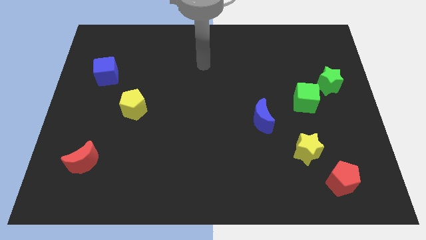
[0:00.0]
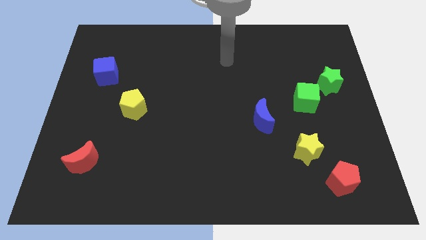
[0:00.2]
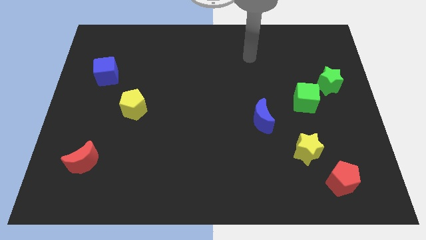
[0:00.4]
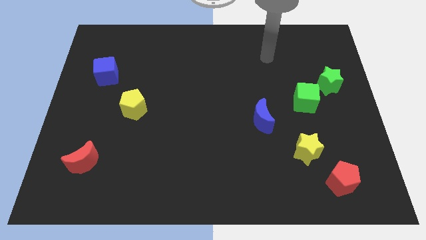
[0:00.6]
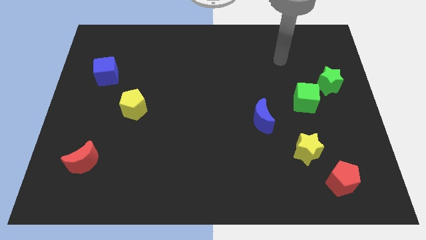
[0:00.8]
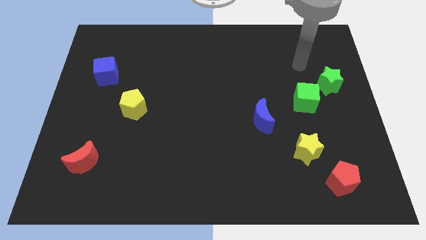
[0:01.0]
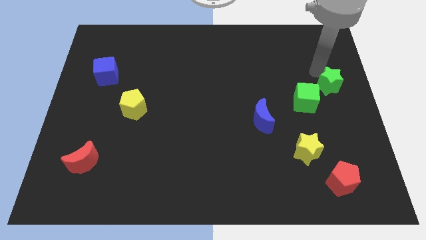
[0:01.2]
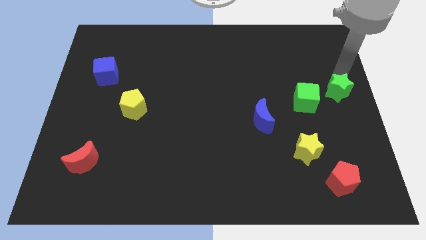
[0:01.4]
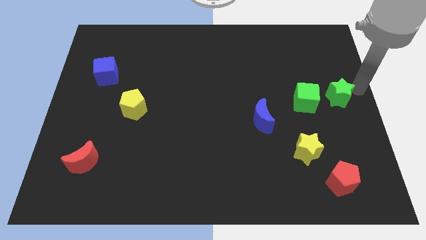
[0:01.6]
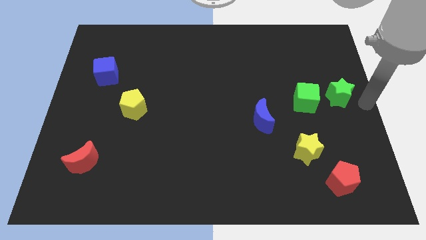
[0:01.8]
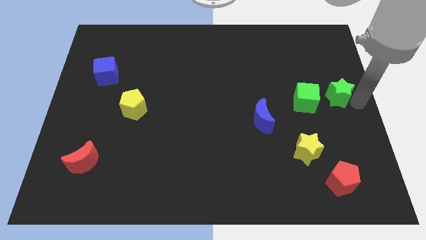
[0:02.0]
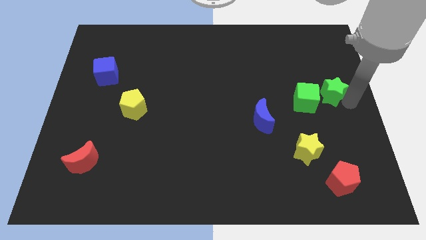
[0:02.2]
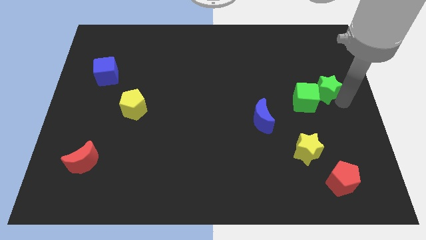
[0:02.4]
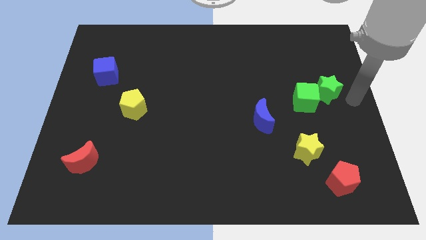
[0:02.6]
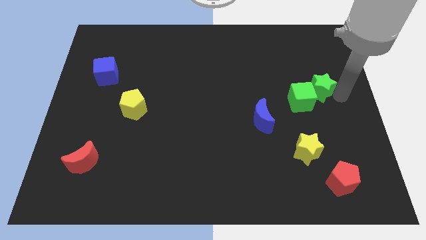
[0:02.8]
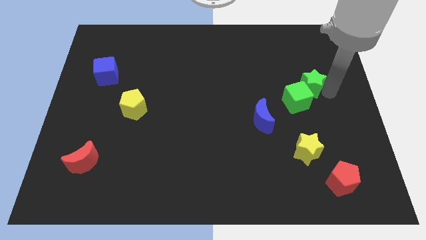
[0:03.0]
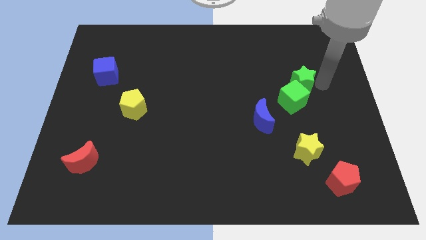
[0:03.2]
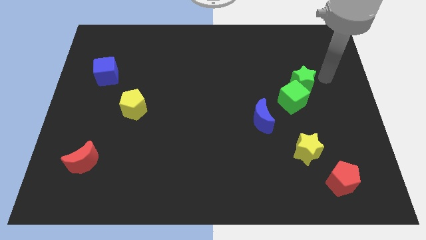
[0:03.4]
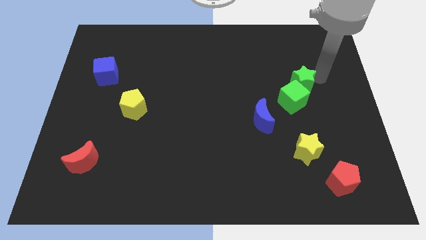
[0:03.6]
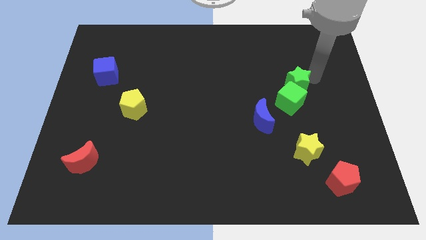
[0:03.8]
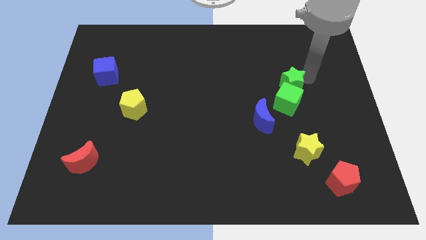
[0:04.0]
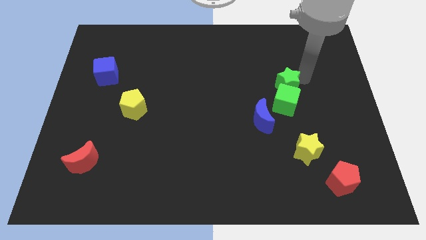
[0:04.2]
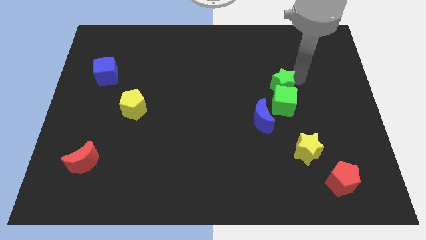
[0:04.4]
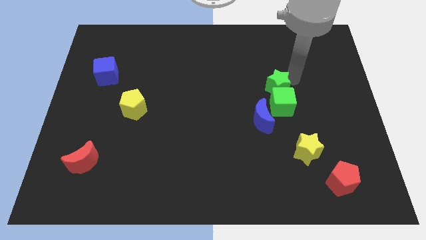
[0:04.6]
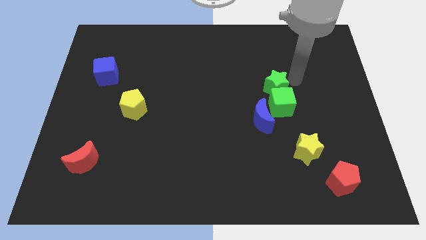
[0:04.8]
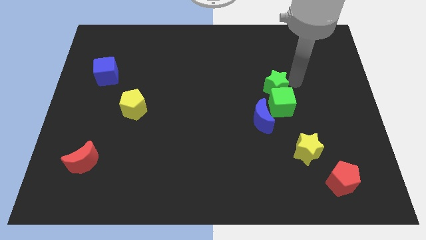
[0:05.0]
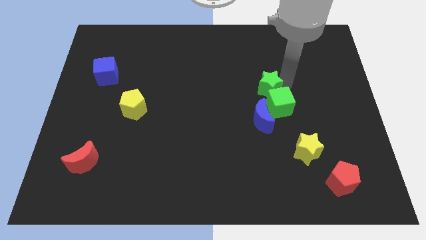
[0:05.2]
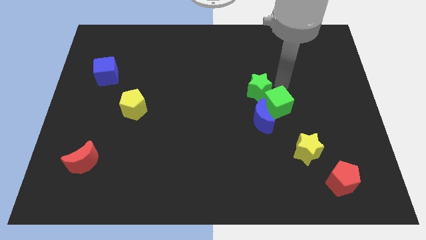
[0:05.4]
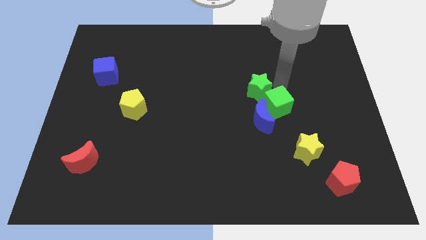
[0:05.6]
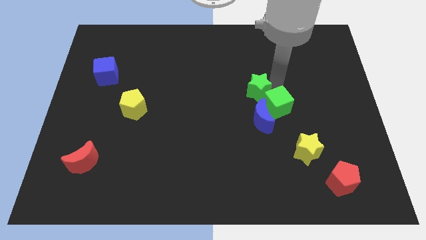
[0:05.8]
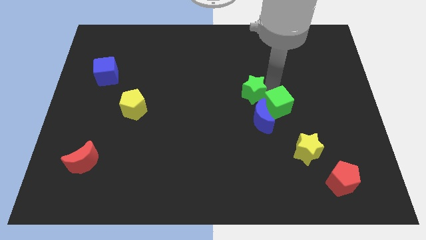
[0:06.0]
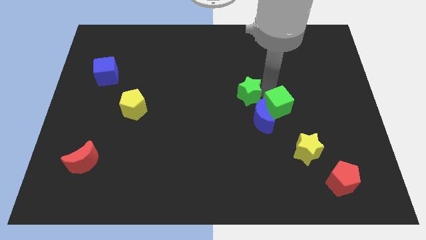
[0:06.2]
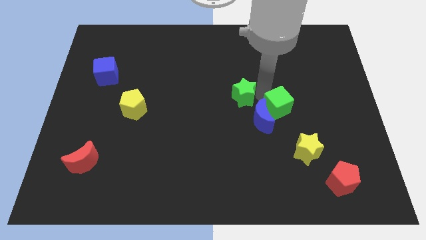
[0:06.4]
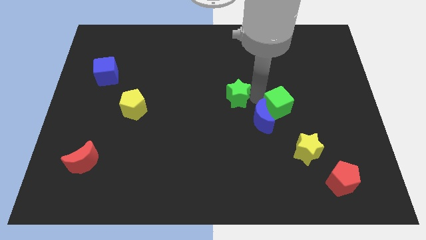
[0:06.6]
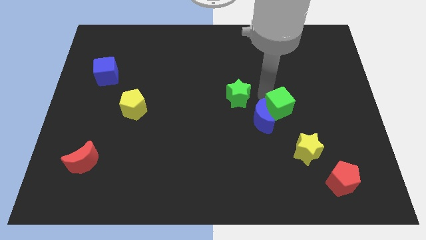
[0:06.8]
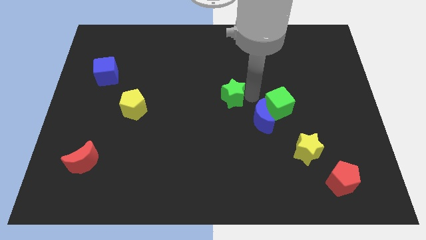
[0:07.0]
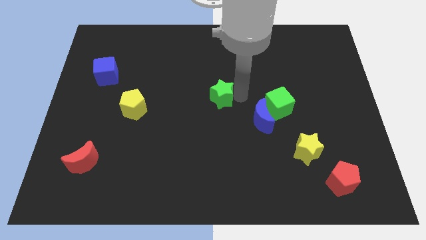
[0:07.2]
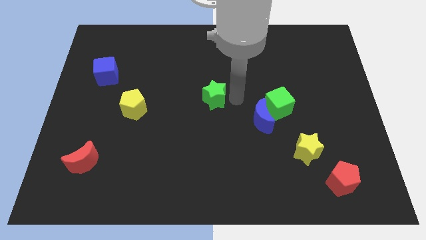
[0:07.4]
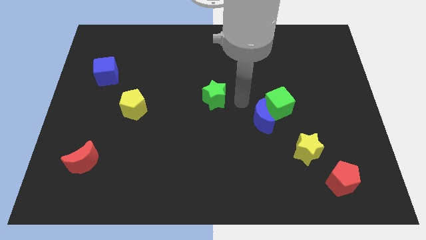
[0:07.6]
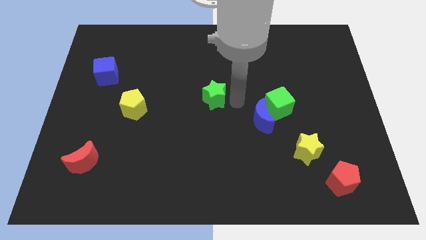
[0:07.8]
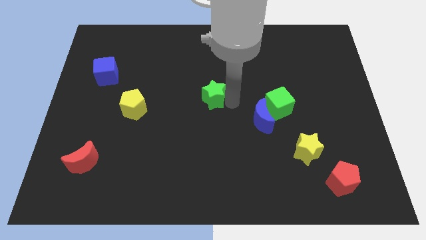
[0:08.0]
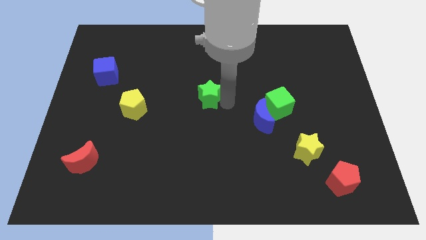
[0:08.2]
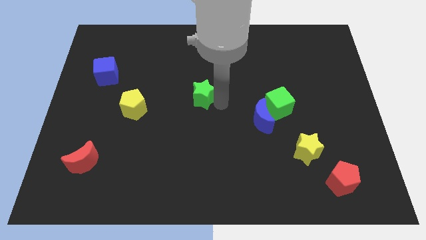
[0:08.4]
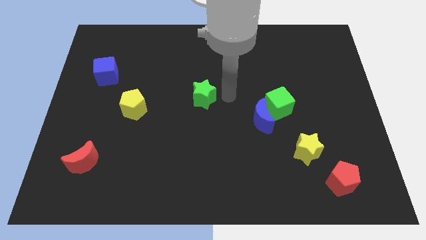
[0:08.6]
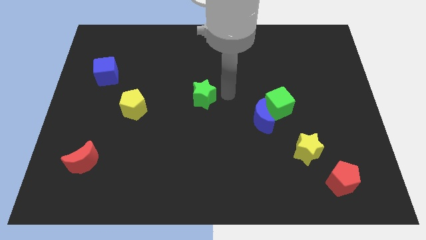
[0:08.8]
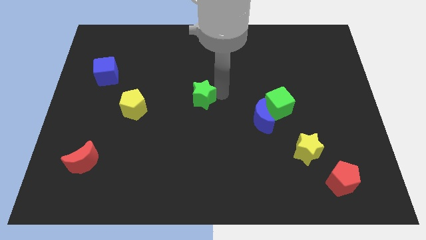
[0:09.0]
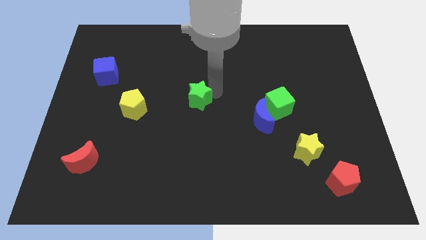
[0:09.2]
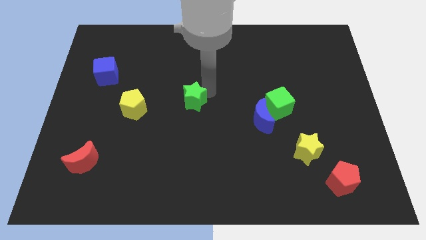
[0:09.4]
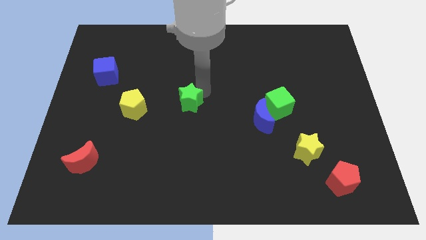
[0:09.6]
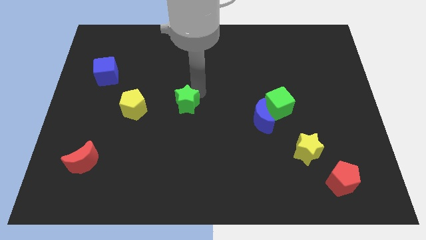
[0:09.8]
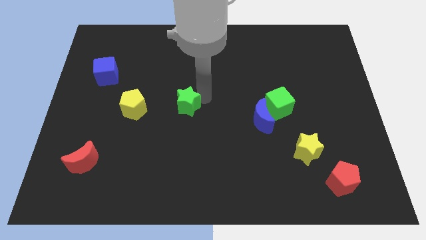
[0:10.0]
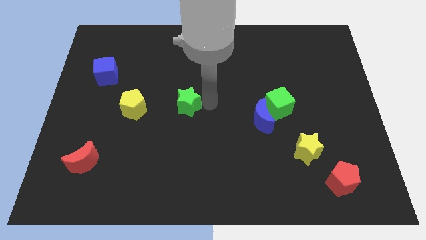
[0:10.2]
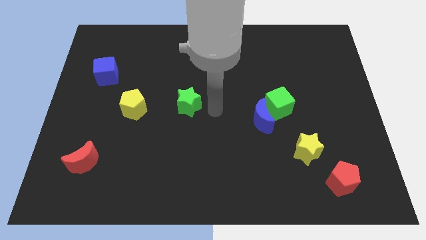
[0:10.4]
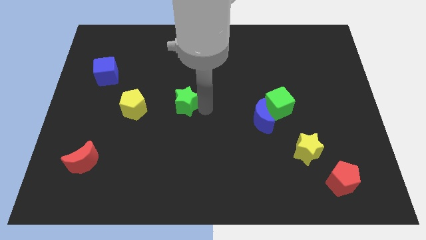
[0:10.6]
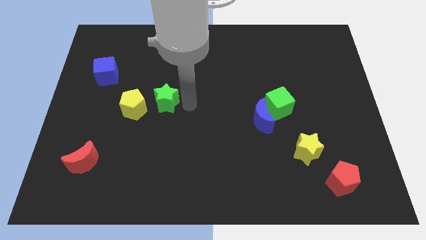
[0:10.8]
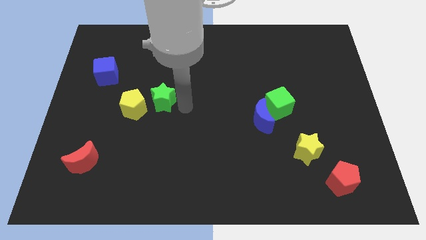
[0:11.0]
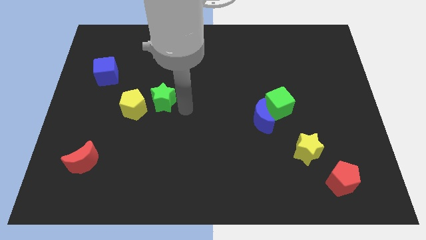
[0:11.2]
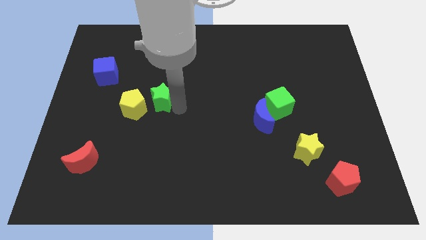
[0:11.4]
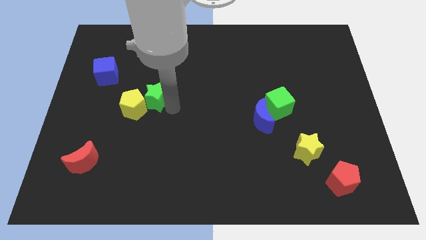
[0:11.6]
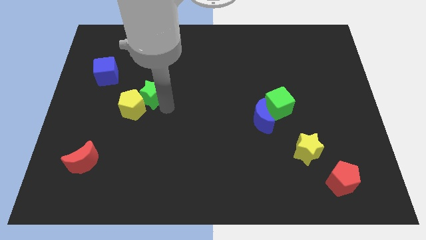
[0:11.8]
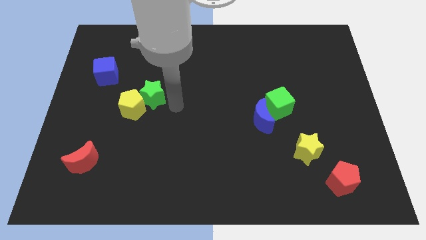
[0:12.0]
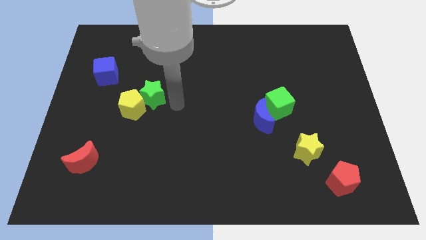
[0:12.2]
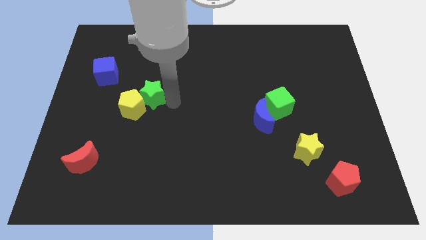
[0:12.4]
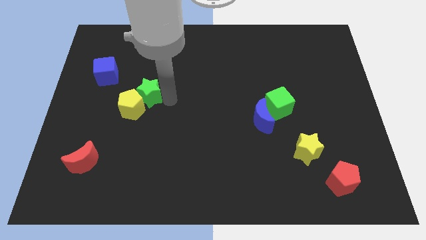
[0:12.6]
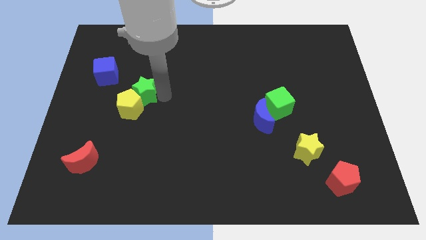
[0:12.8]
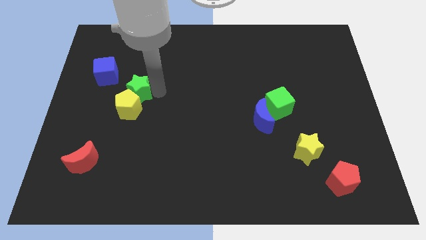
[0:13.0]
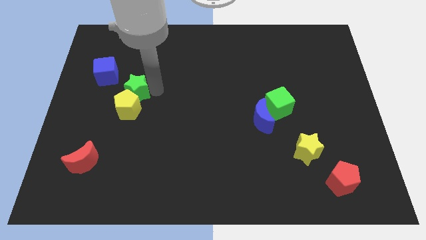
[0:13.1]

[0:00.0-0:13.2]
slide the green star to the top left of the yellow pentagon

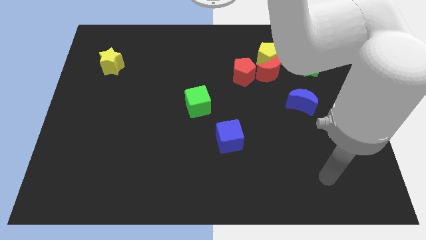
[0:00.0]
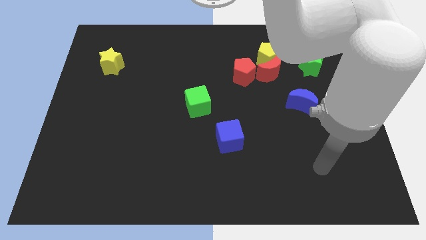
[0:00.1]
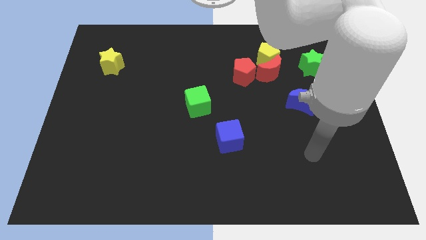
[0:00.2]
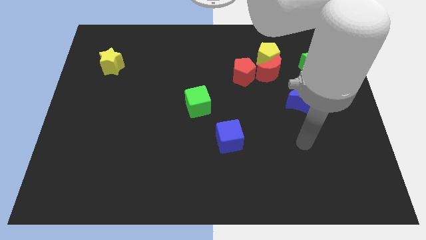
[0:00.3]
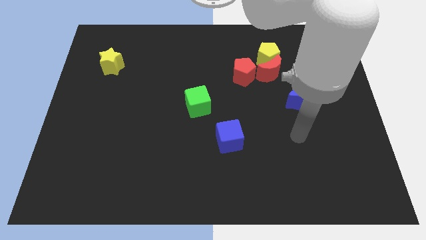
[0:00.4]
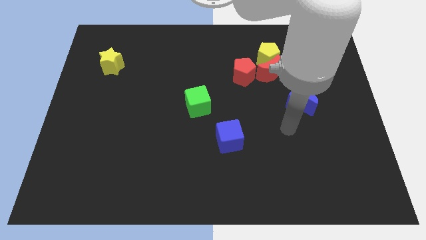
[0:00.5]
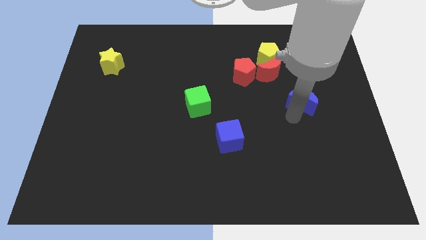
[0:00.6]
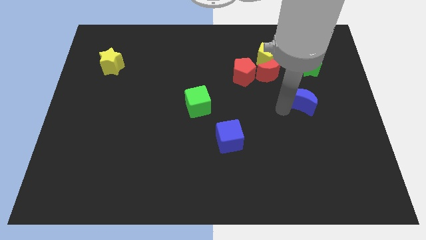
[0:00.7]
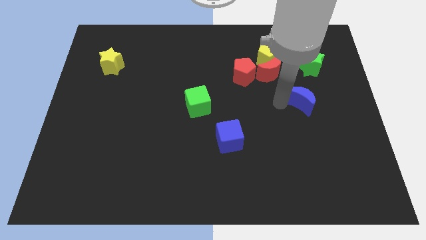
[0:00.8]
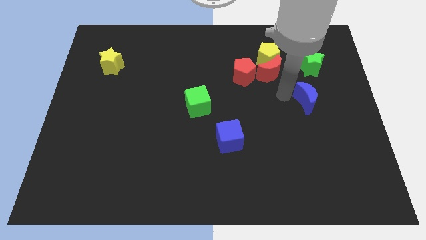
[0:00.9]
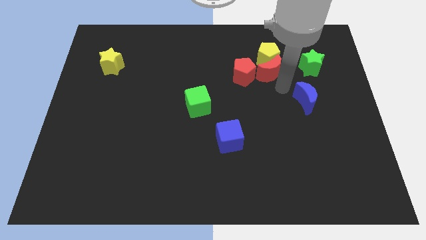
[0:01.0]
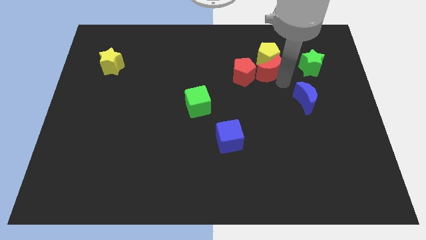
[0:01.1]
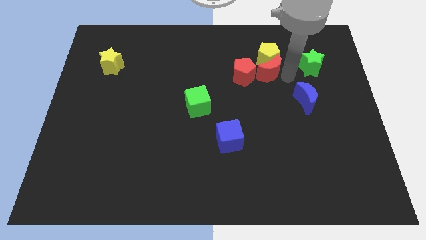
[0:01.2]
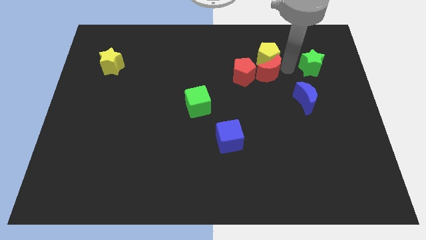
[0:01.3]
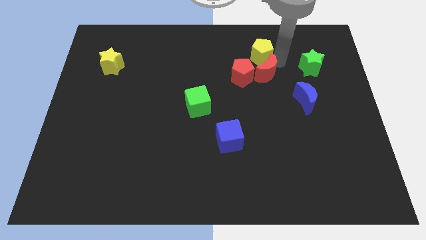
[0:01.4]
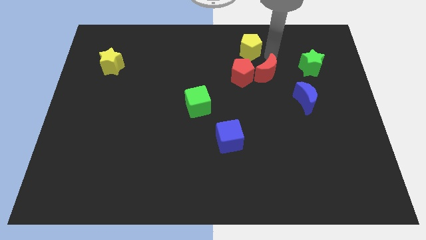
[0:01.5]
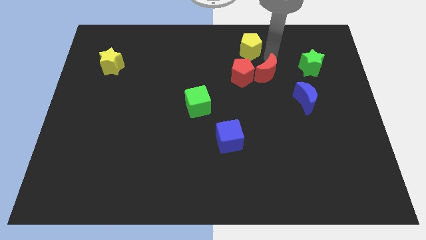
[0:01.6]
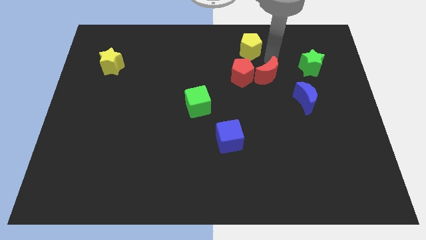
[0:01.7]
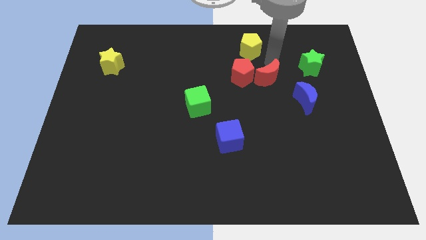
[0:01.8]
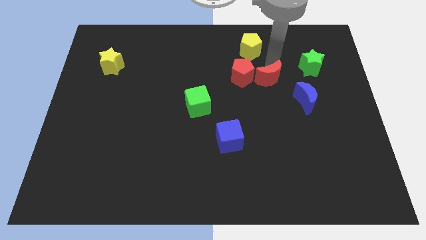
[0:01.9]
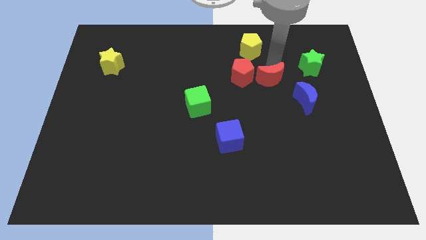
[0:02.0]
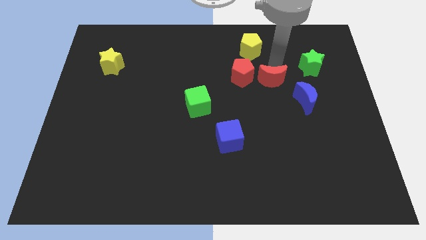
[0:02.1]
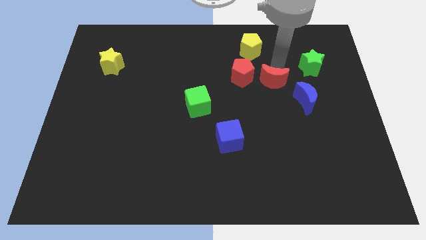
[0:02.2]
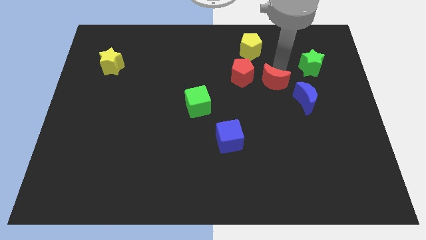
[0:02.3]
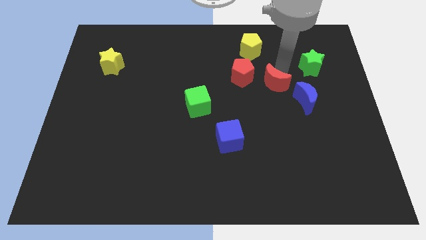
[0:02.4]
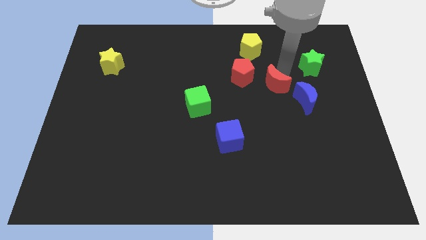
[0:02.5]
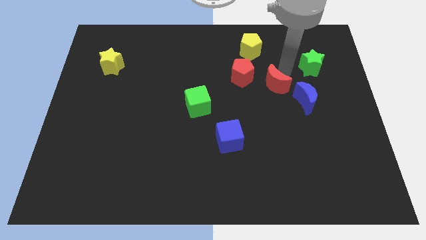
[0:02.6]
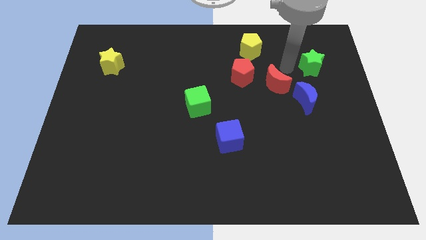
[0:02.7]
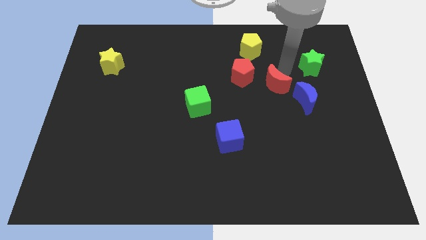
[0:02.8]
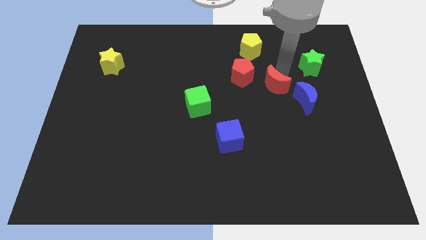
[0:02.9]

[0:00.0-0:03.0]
push the red moon just left of the blue moon
